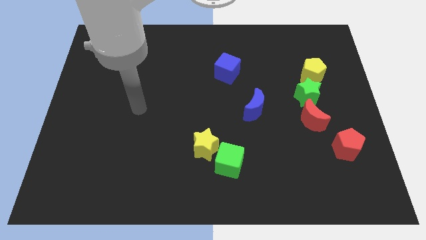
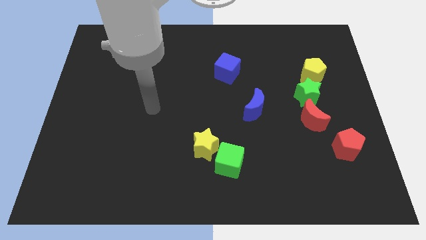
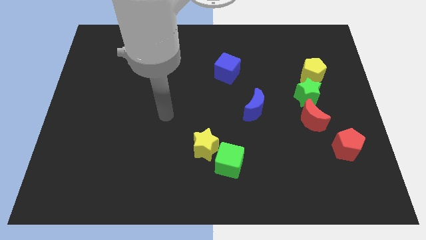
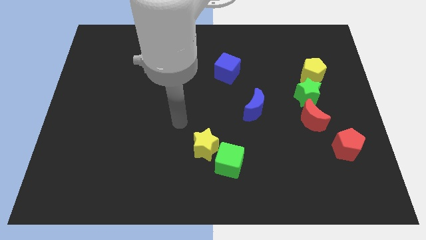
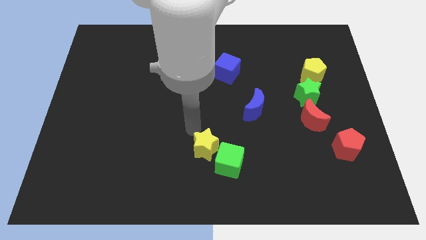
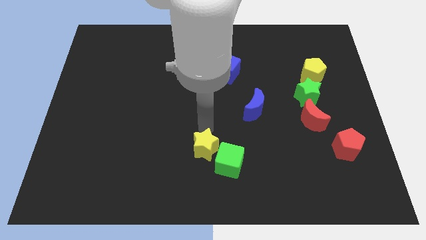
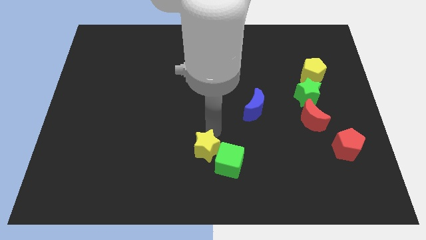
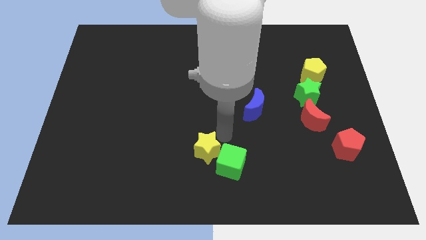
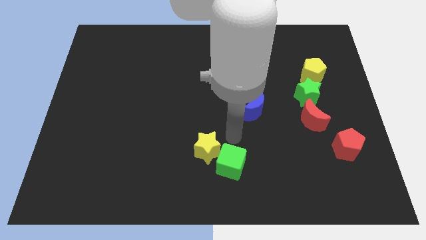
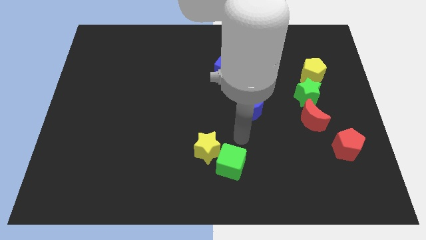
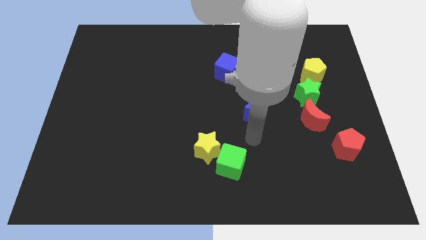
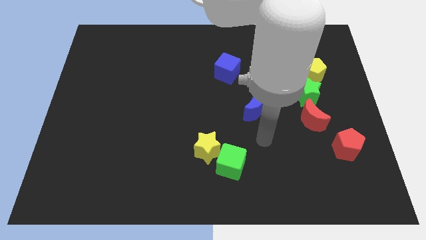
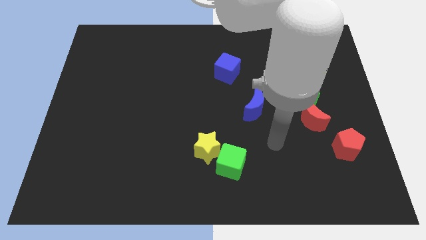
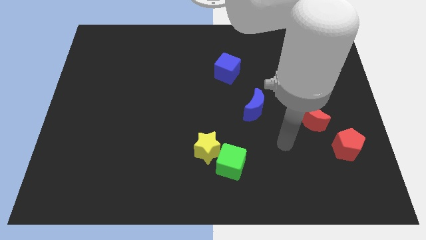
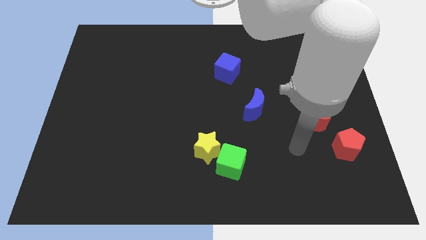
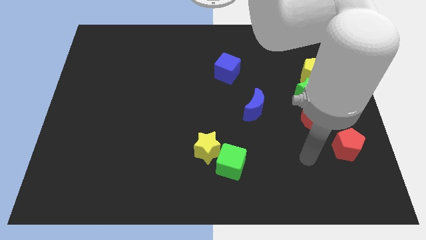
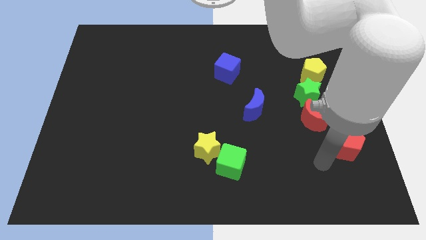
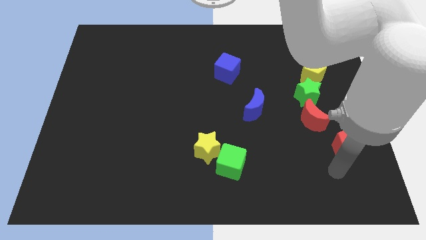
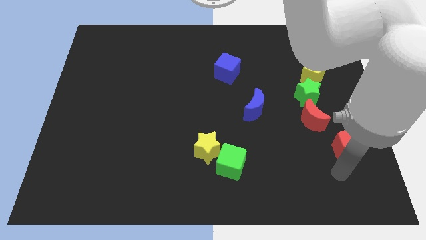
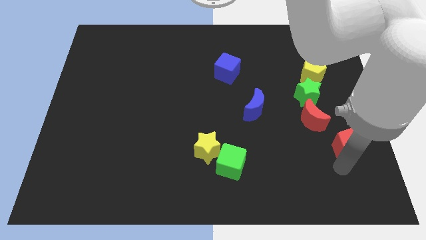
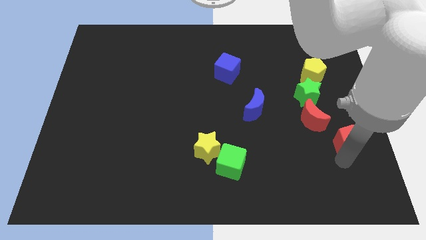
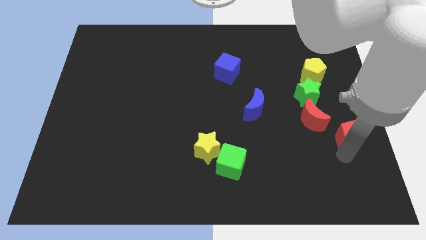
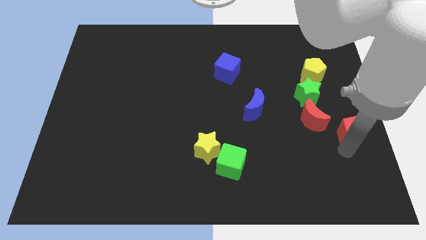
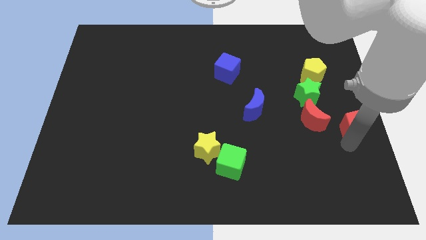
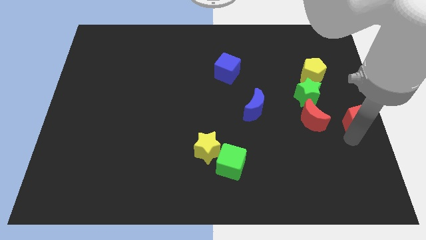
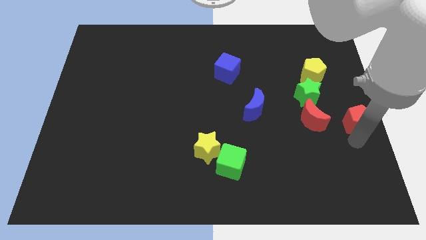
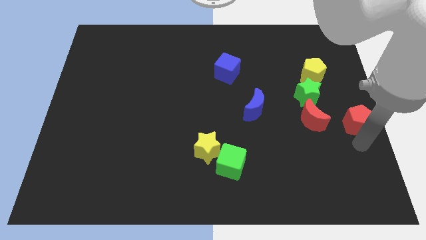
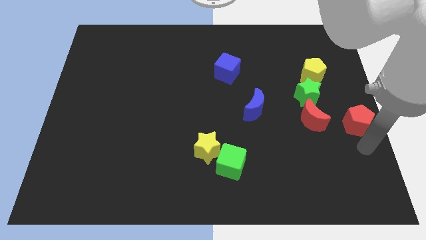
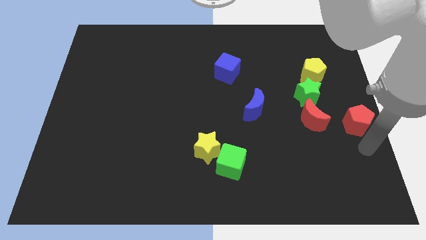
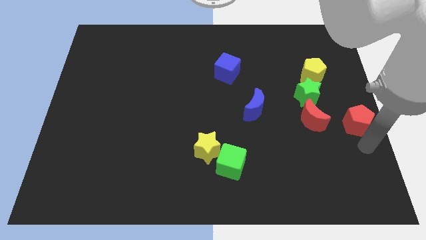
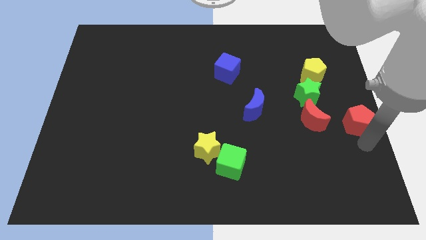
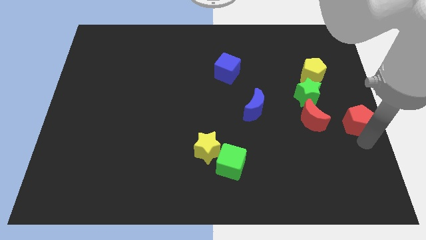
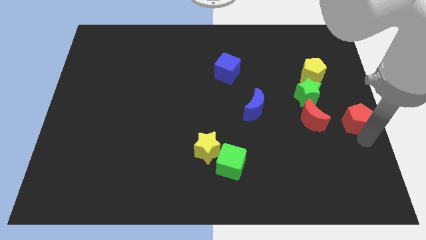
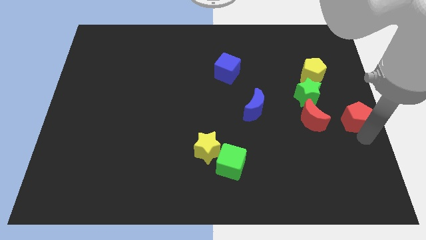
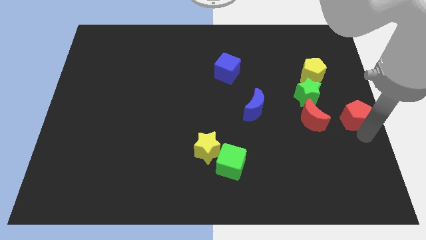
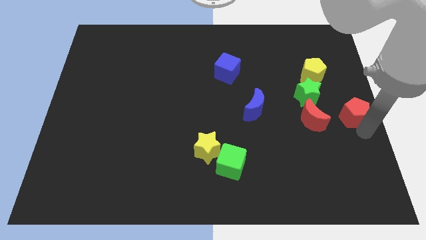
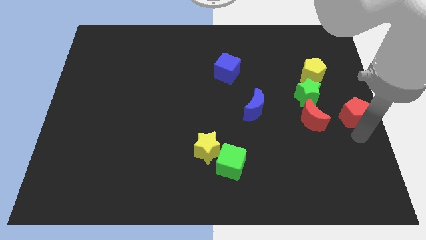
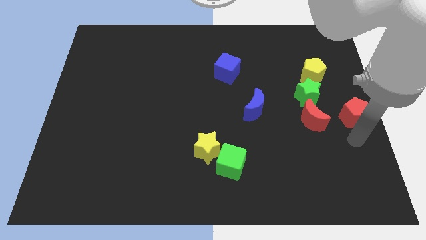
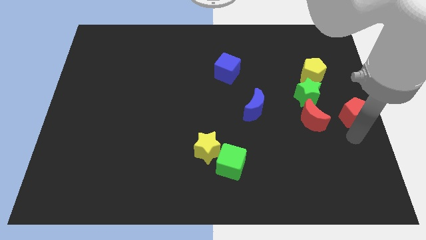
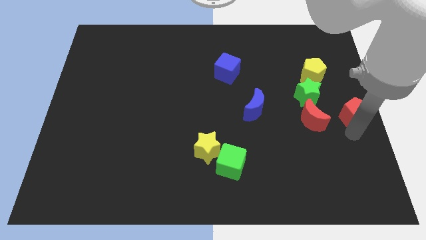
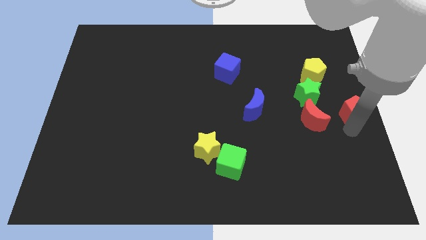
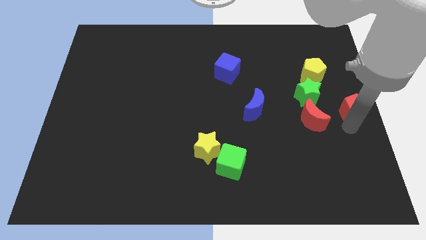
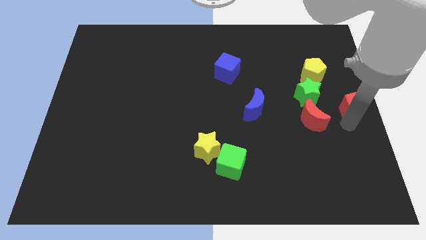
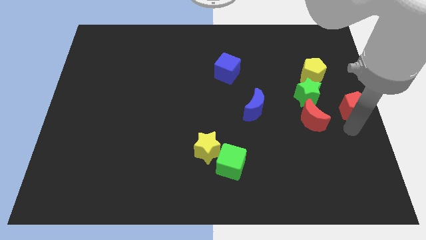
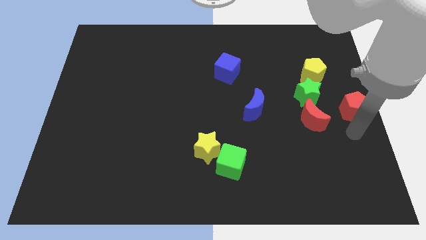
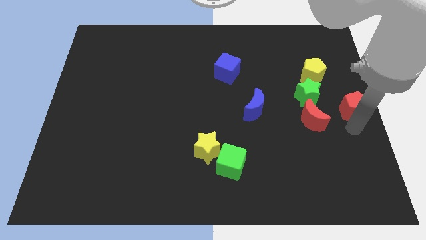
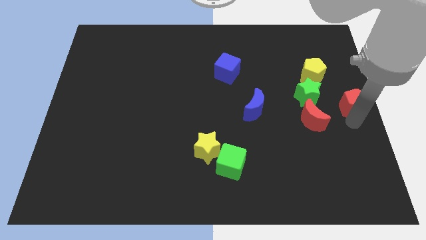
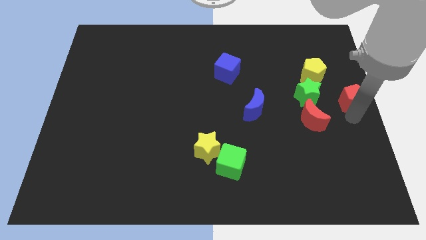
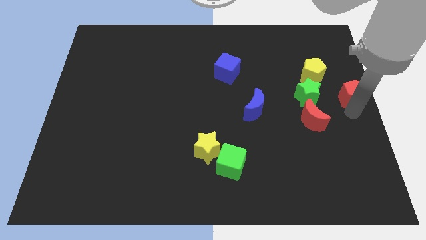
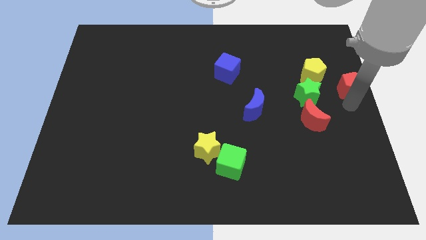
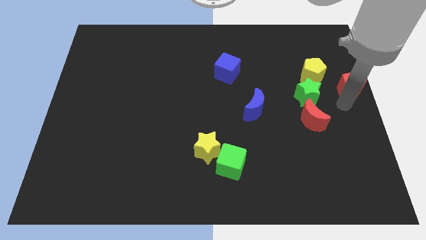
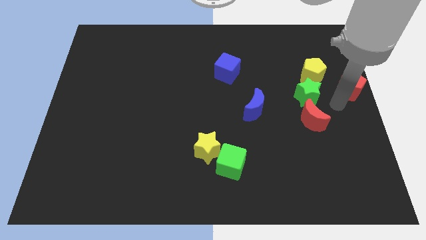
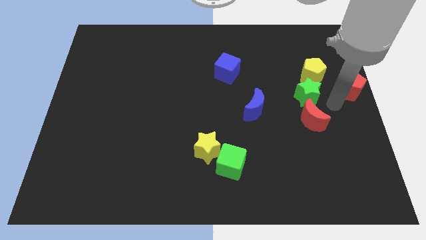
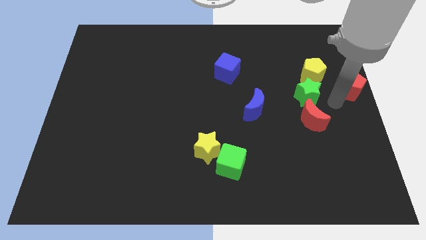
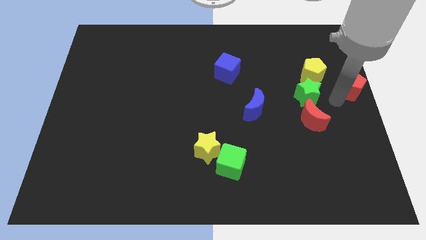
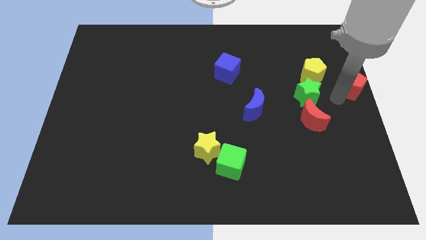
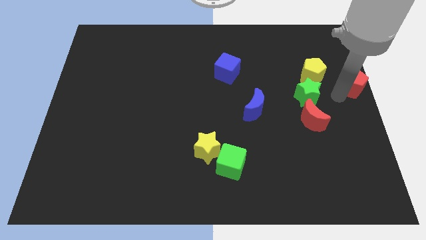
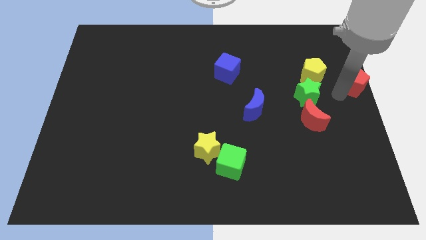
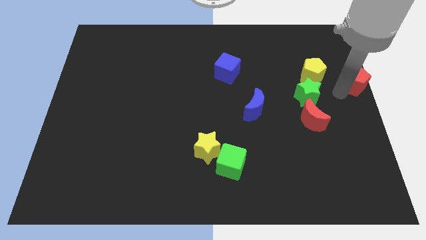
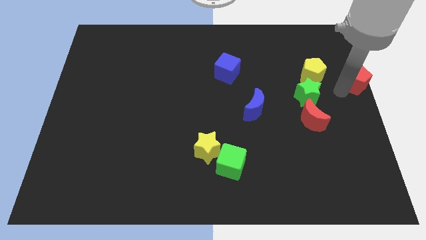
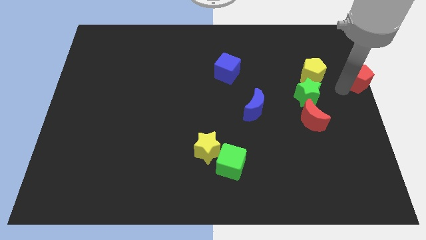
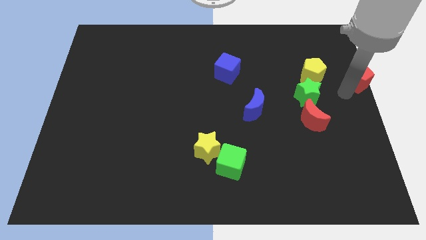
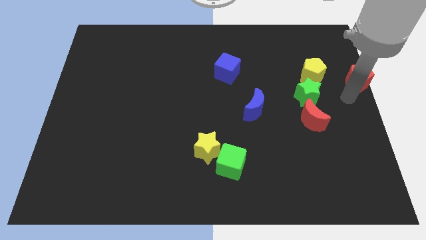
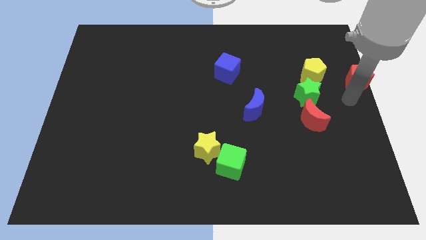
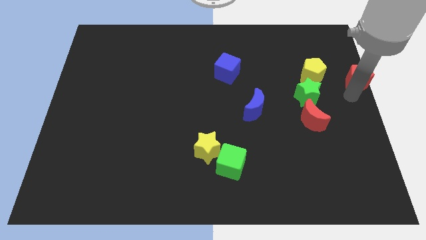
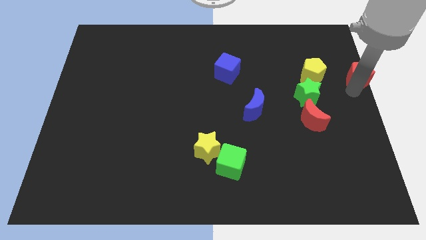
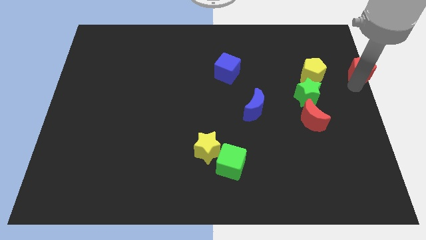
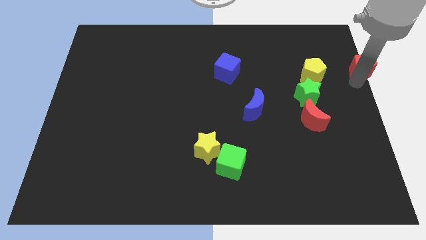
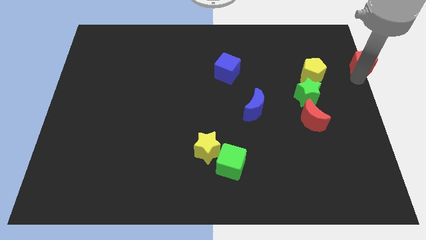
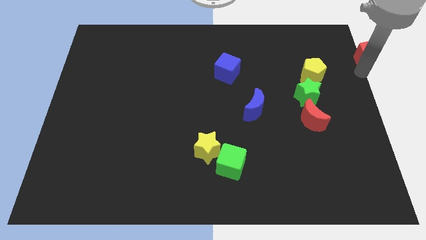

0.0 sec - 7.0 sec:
move the red pentagon to the upper right corner
